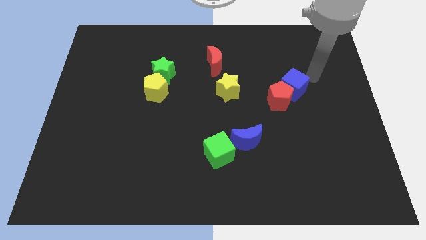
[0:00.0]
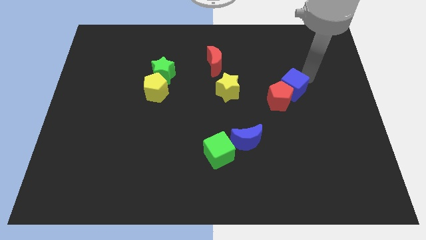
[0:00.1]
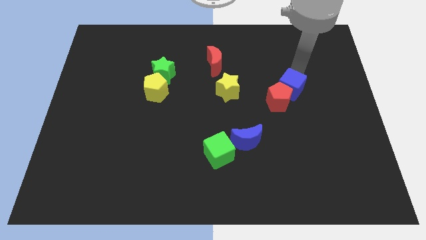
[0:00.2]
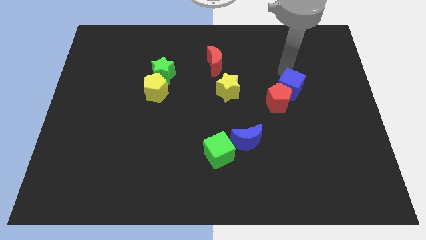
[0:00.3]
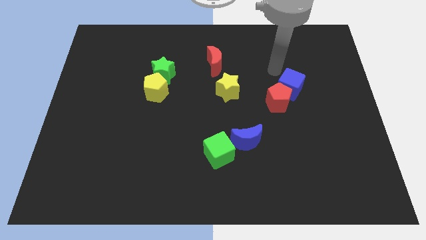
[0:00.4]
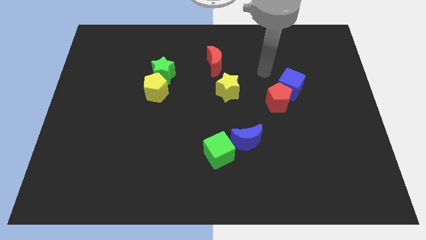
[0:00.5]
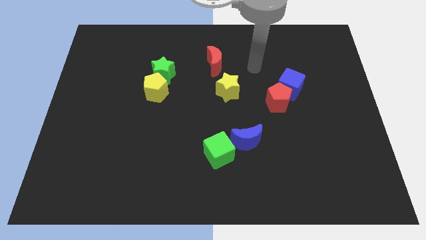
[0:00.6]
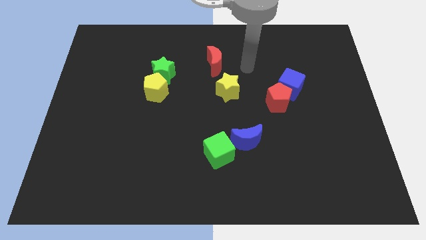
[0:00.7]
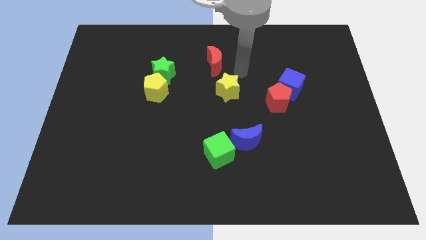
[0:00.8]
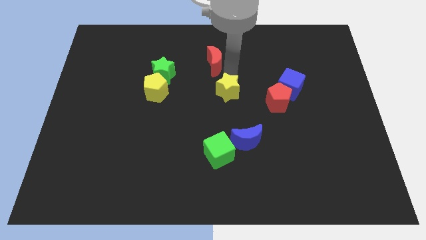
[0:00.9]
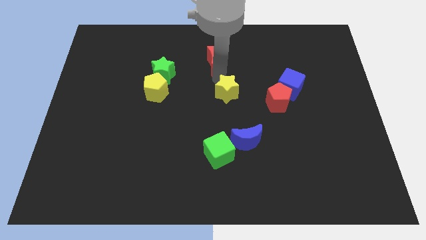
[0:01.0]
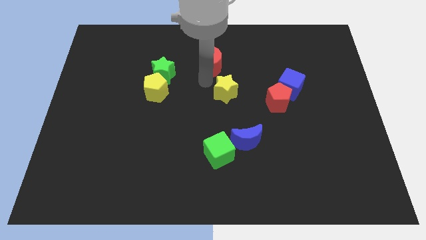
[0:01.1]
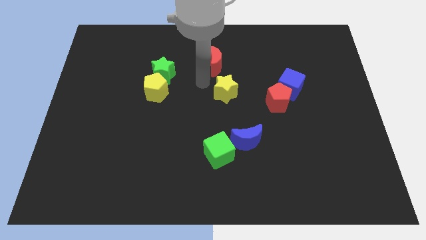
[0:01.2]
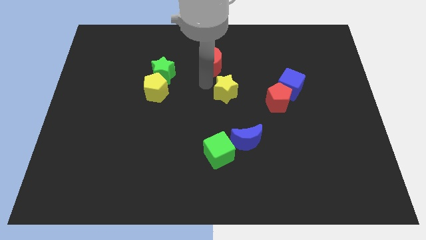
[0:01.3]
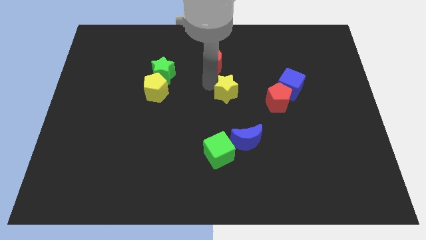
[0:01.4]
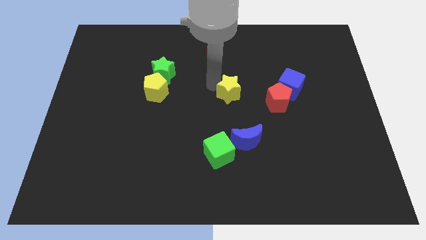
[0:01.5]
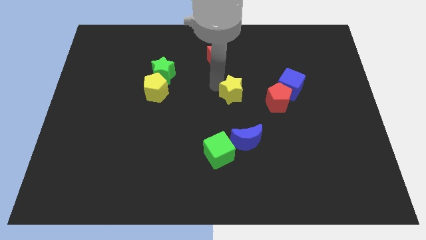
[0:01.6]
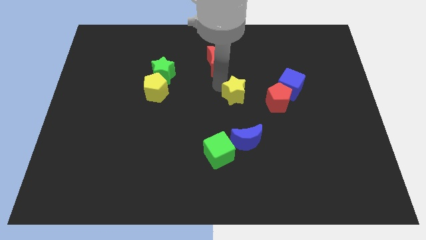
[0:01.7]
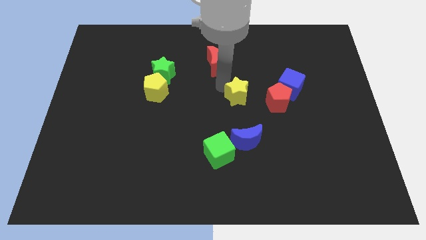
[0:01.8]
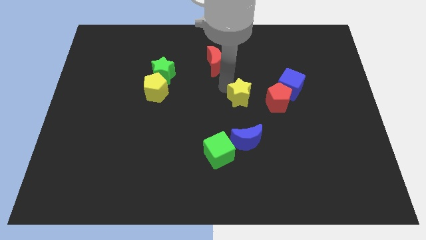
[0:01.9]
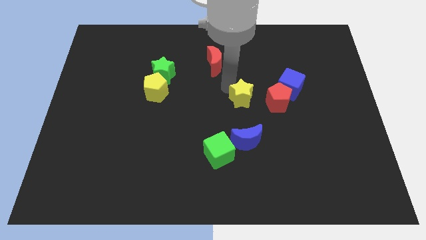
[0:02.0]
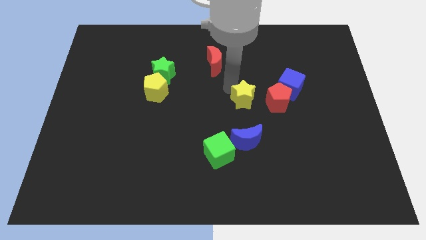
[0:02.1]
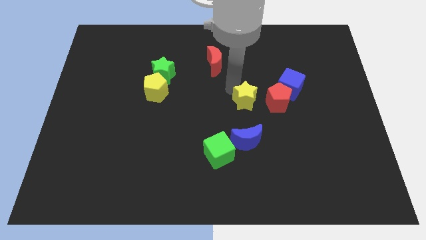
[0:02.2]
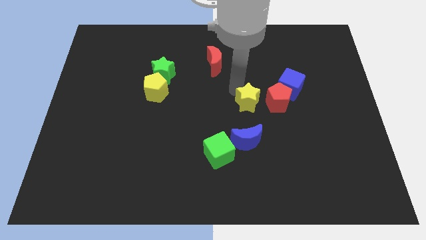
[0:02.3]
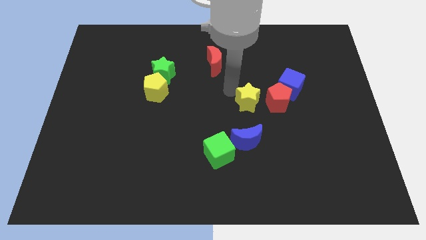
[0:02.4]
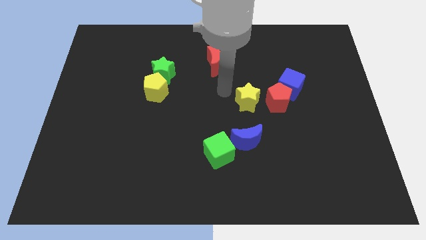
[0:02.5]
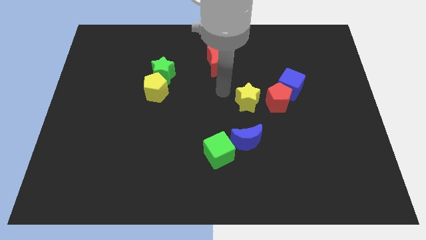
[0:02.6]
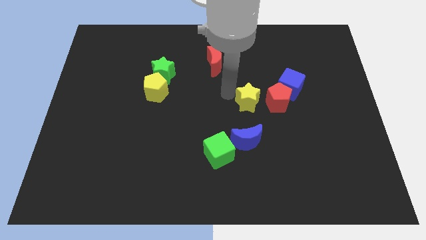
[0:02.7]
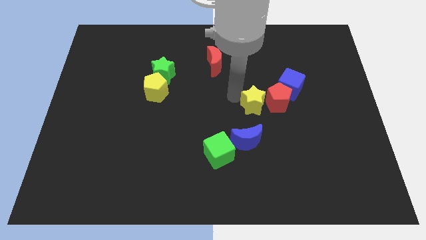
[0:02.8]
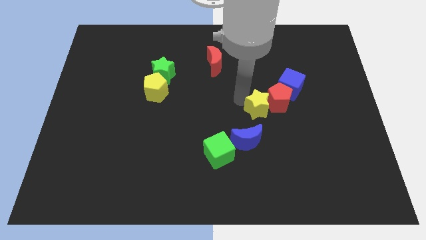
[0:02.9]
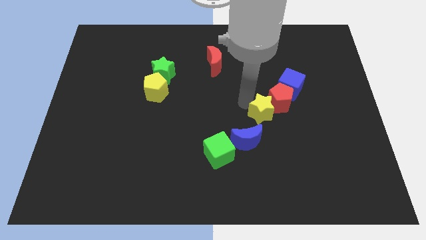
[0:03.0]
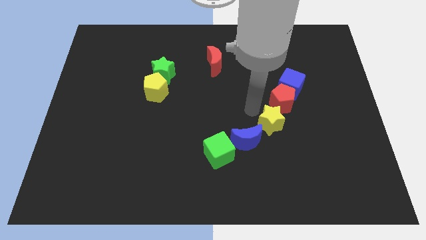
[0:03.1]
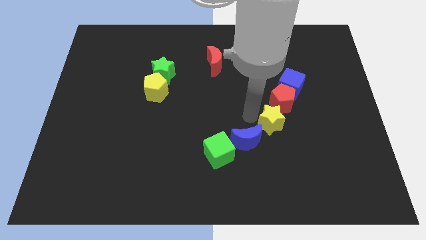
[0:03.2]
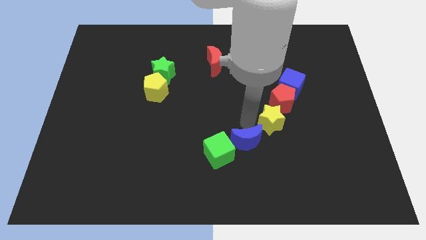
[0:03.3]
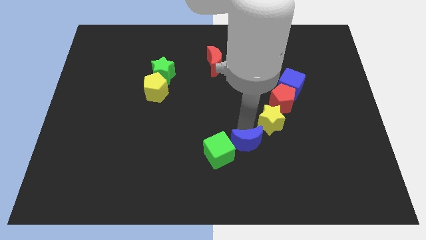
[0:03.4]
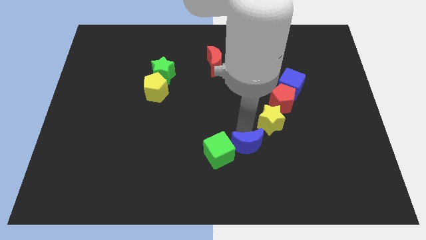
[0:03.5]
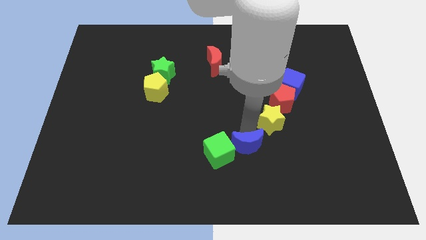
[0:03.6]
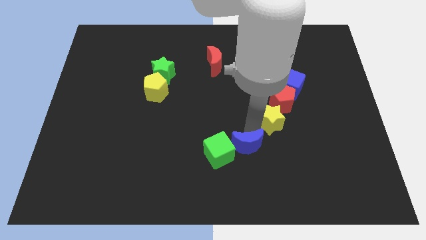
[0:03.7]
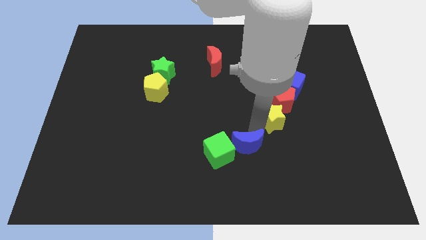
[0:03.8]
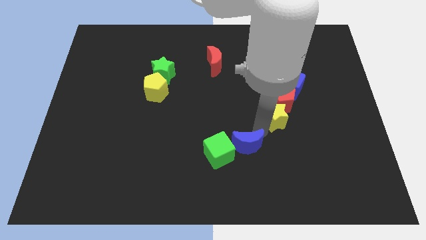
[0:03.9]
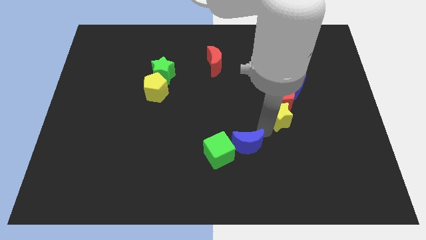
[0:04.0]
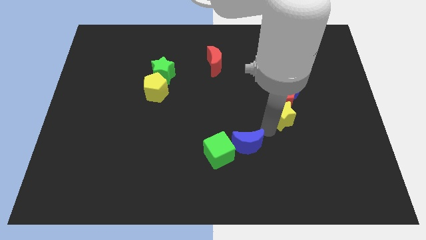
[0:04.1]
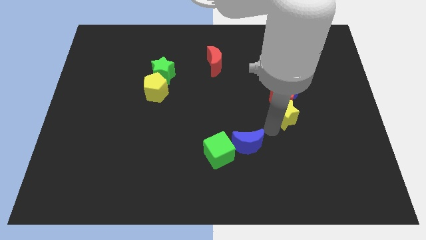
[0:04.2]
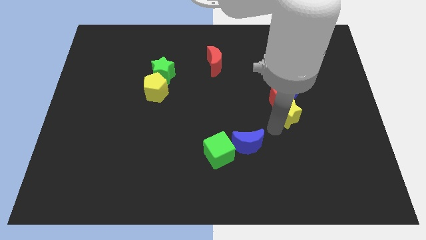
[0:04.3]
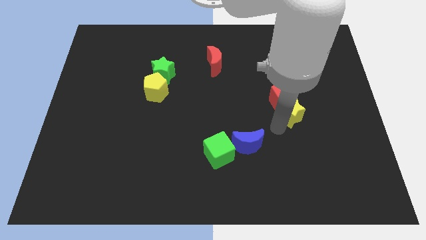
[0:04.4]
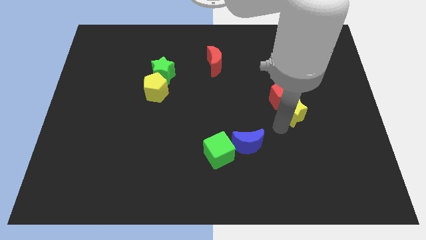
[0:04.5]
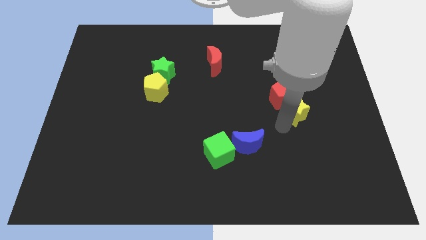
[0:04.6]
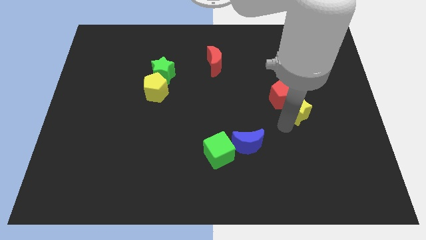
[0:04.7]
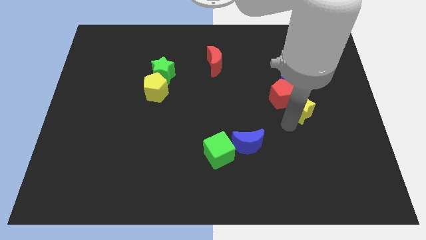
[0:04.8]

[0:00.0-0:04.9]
move the yellow star to the right of the red pentagon

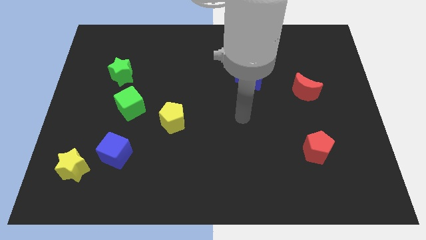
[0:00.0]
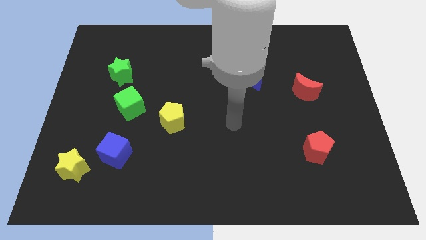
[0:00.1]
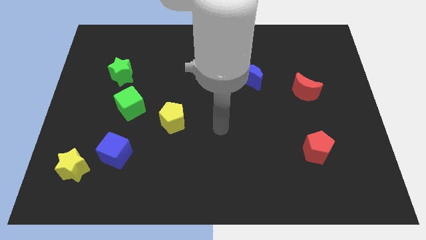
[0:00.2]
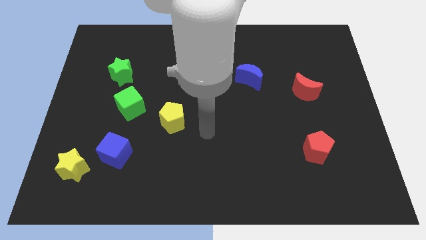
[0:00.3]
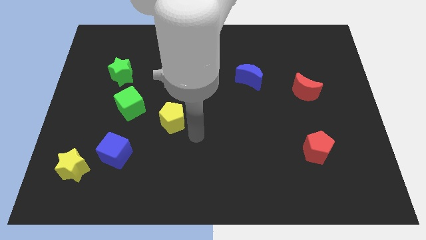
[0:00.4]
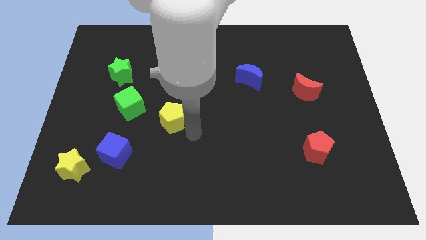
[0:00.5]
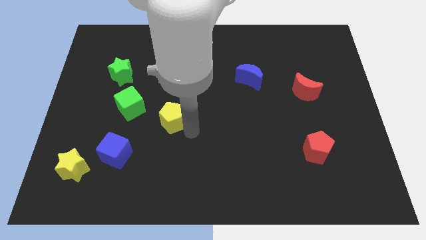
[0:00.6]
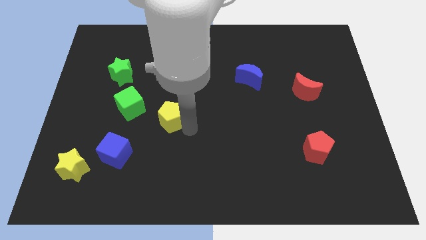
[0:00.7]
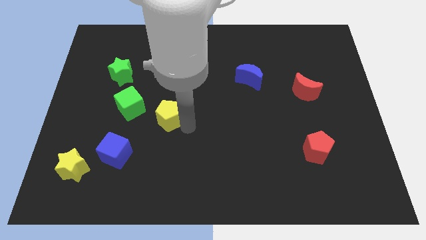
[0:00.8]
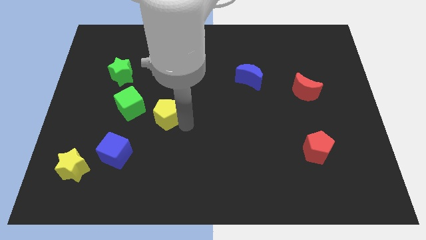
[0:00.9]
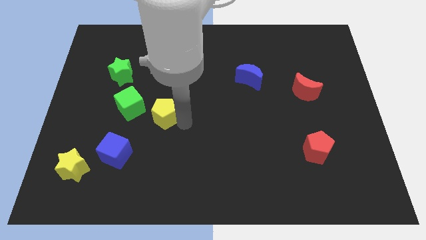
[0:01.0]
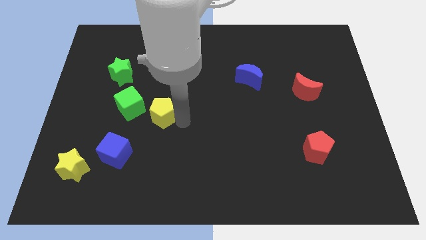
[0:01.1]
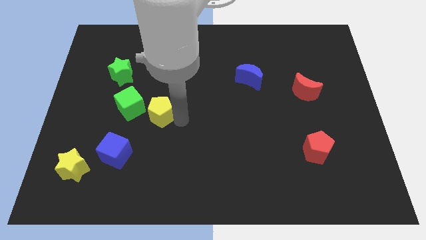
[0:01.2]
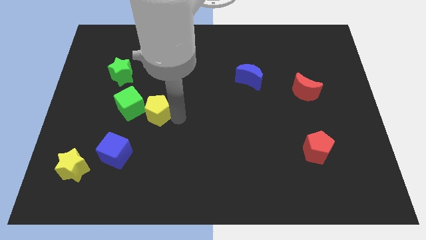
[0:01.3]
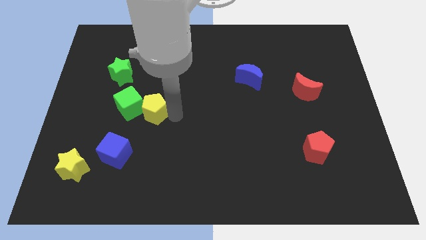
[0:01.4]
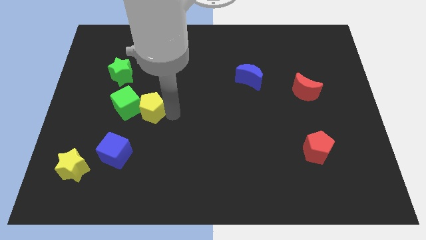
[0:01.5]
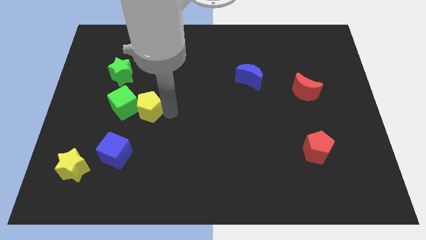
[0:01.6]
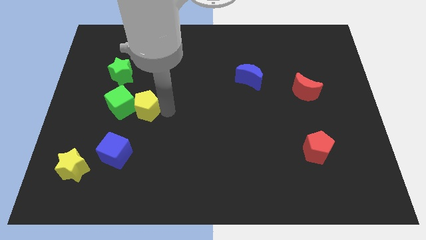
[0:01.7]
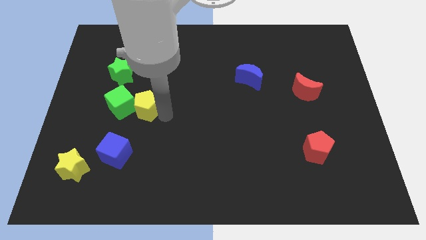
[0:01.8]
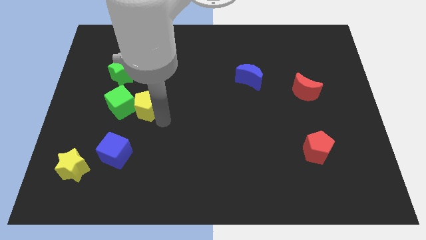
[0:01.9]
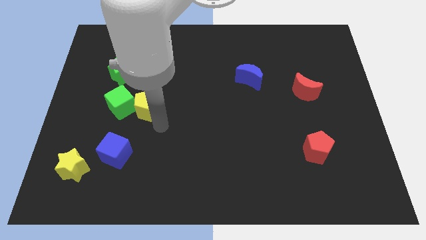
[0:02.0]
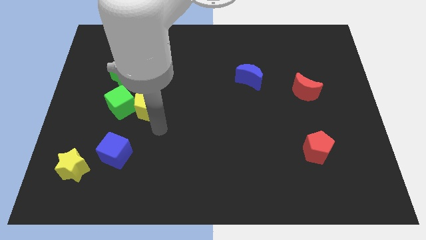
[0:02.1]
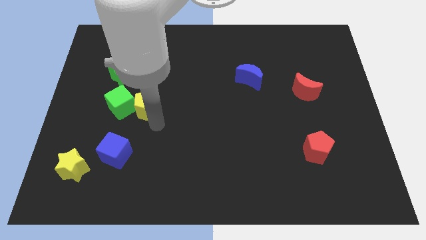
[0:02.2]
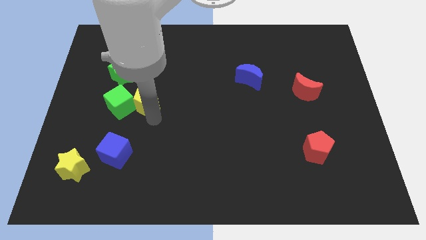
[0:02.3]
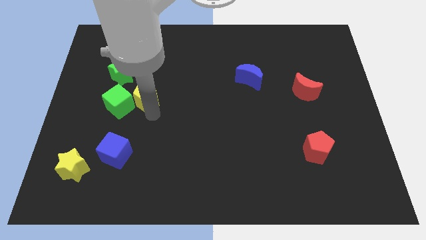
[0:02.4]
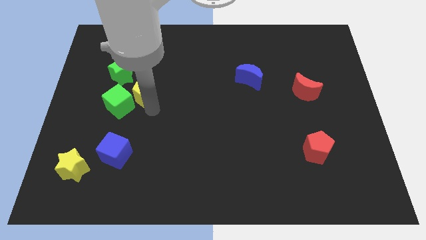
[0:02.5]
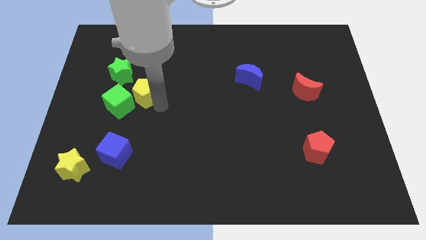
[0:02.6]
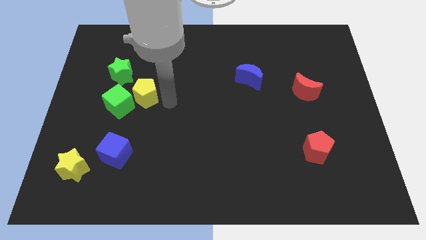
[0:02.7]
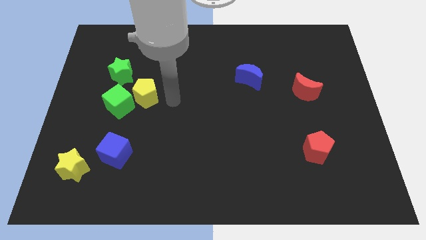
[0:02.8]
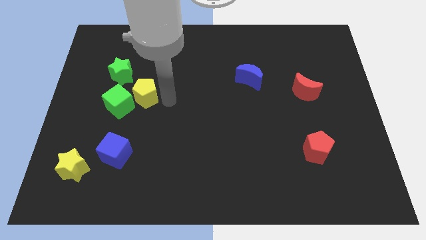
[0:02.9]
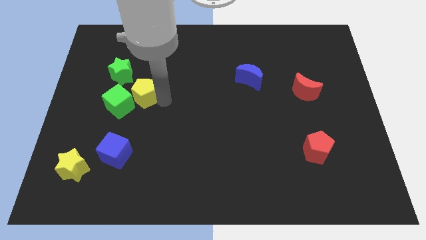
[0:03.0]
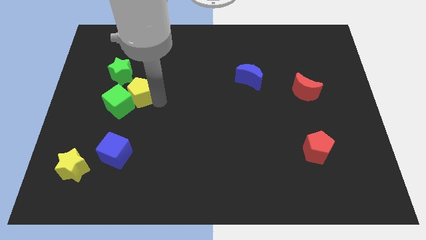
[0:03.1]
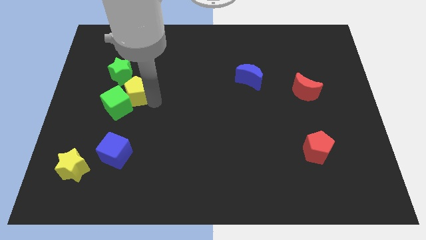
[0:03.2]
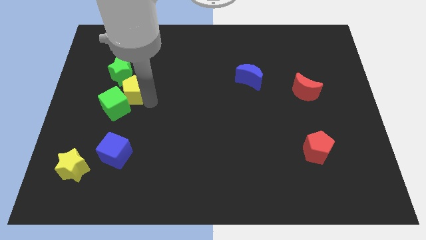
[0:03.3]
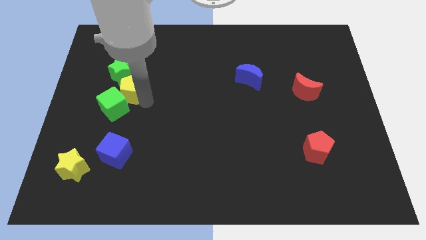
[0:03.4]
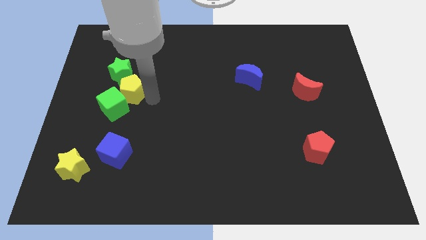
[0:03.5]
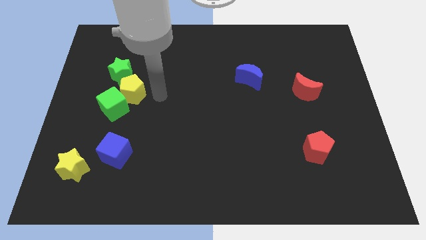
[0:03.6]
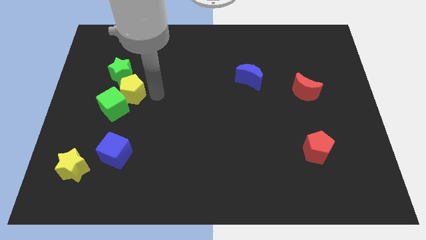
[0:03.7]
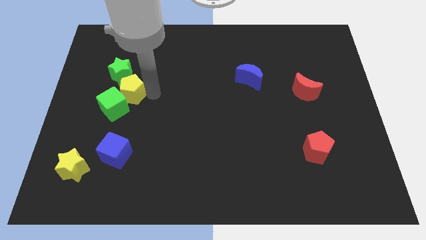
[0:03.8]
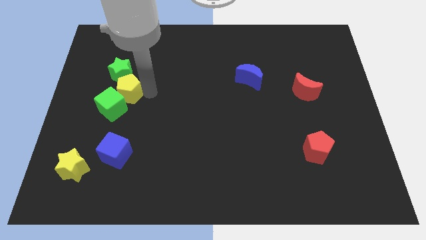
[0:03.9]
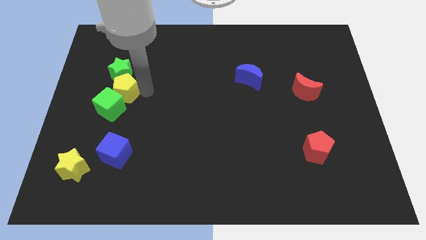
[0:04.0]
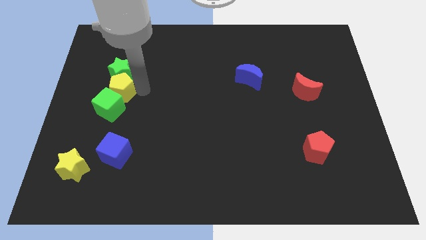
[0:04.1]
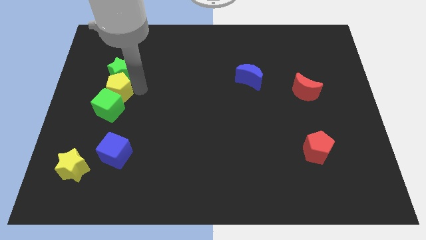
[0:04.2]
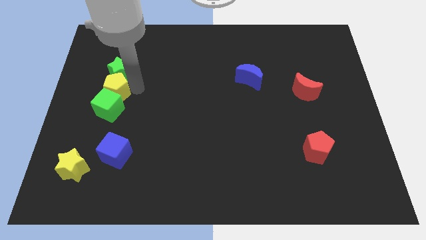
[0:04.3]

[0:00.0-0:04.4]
put the yellow pentagon to the top left side of the green cube
